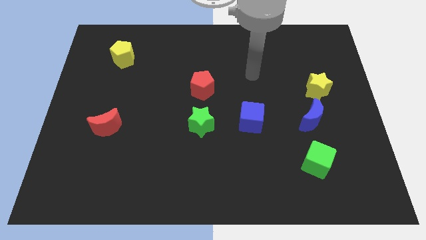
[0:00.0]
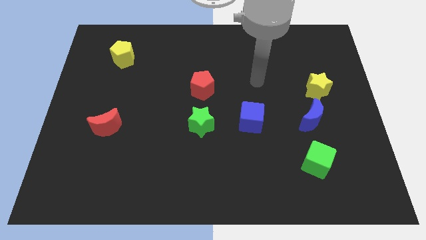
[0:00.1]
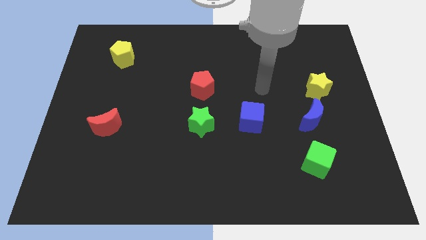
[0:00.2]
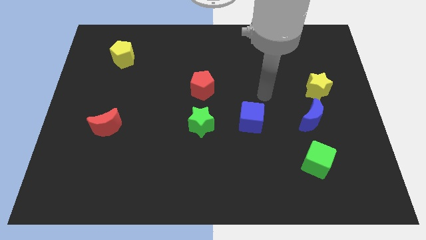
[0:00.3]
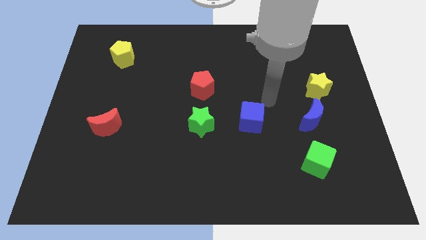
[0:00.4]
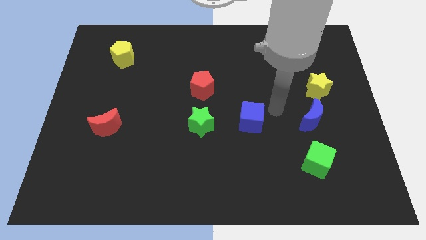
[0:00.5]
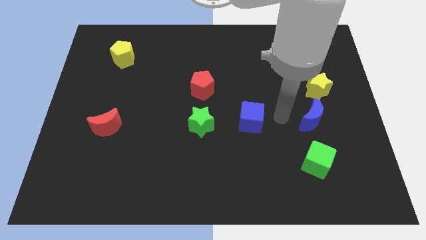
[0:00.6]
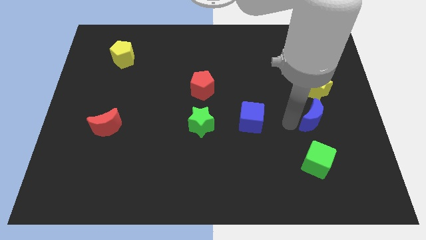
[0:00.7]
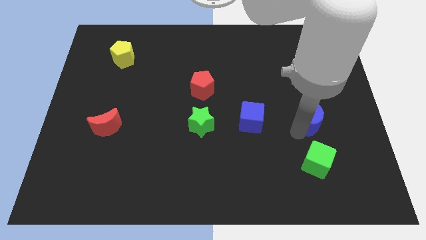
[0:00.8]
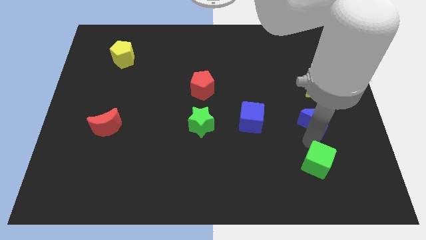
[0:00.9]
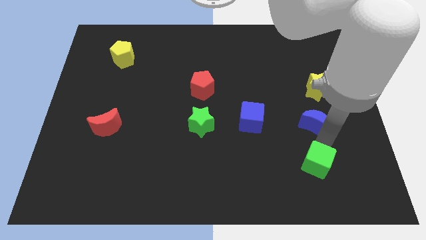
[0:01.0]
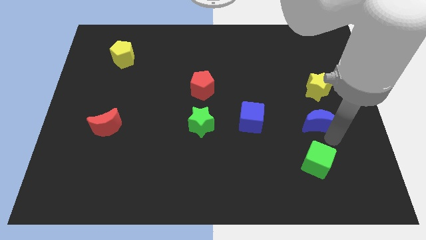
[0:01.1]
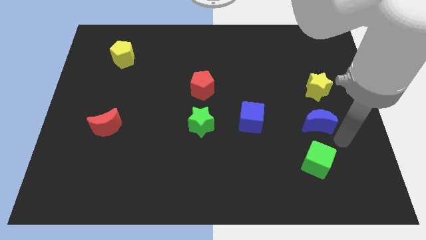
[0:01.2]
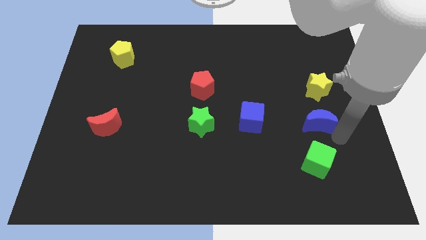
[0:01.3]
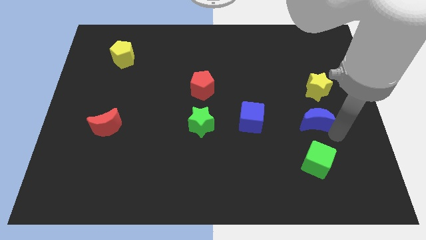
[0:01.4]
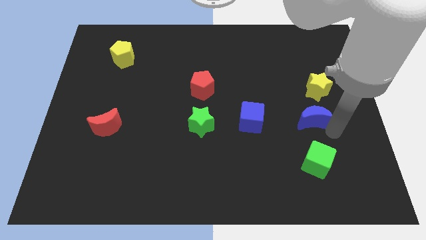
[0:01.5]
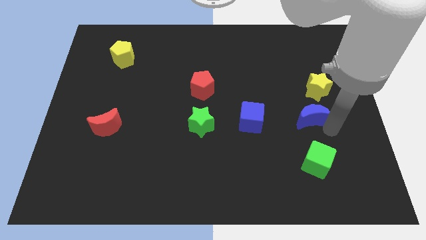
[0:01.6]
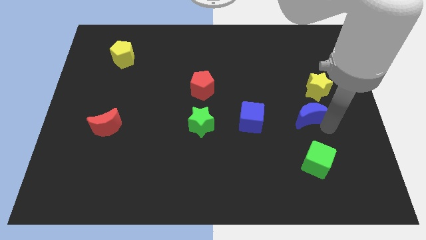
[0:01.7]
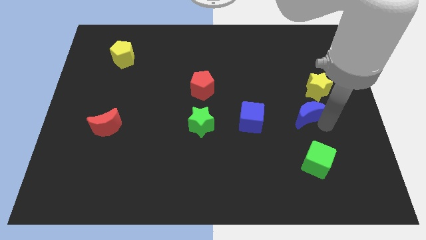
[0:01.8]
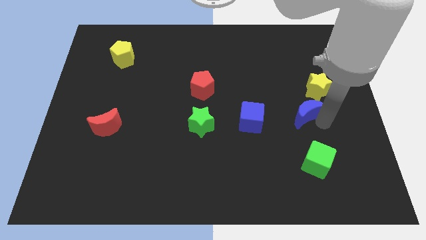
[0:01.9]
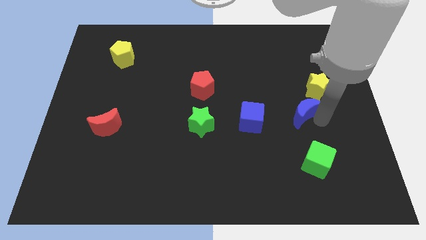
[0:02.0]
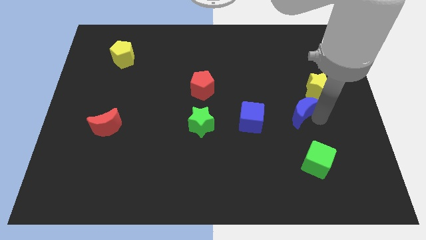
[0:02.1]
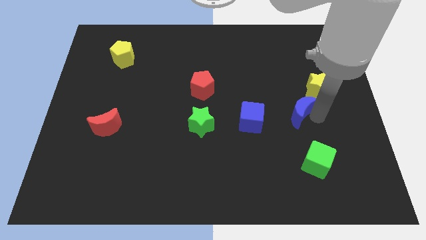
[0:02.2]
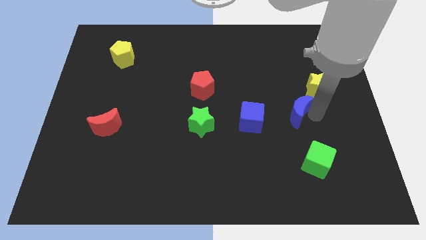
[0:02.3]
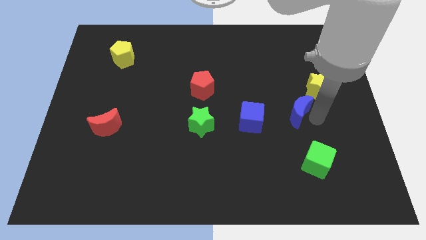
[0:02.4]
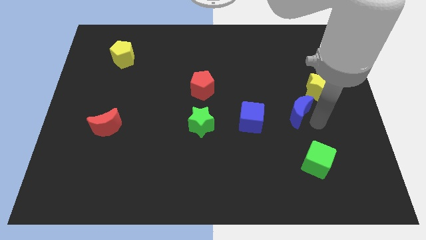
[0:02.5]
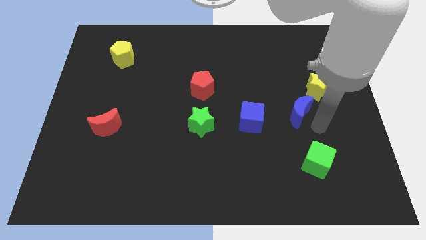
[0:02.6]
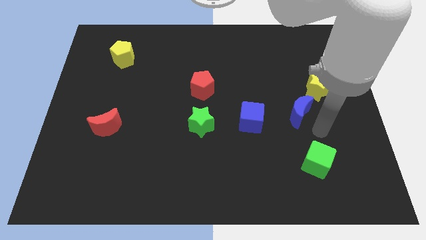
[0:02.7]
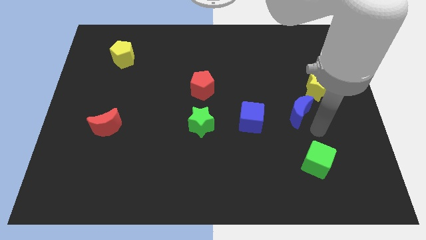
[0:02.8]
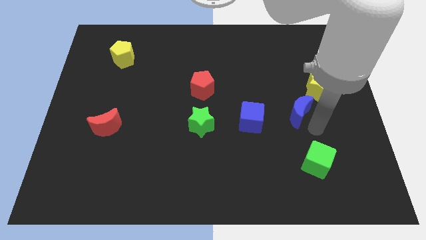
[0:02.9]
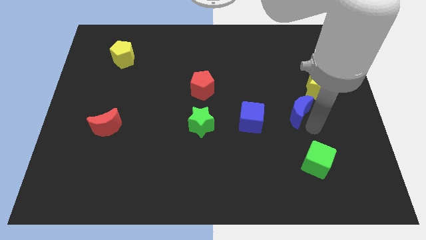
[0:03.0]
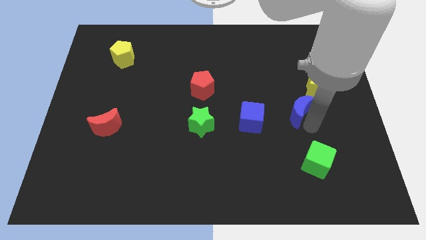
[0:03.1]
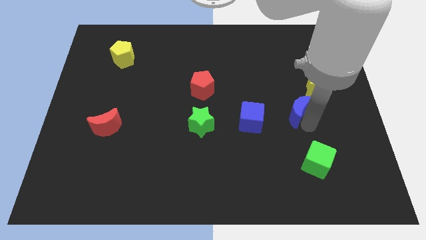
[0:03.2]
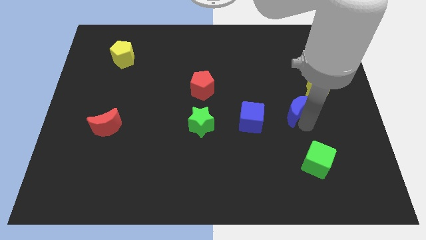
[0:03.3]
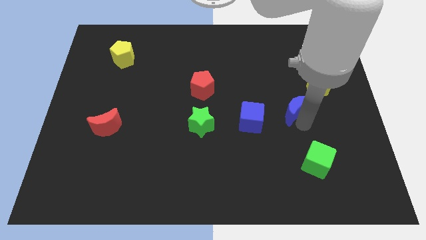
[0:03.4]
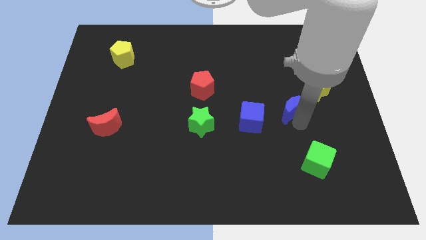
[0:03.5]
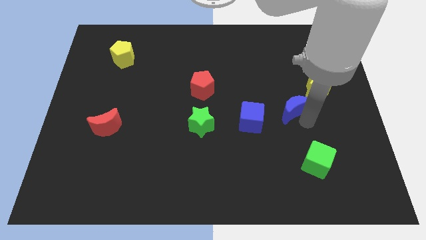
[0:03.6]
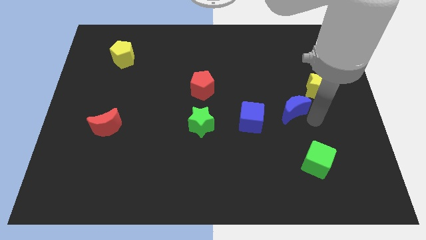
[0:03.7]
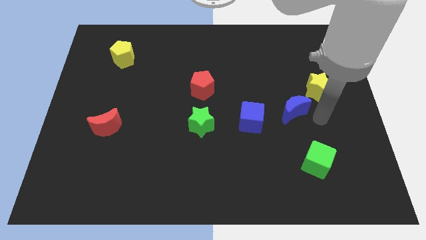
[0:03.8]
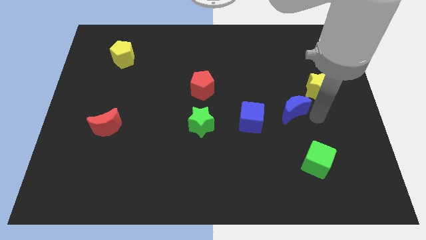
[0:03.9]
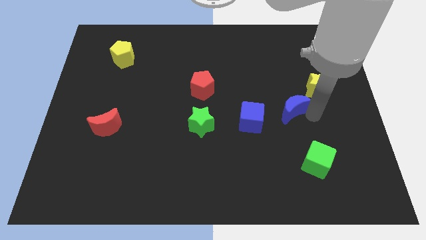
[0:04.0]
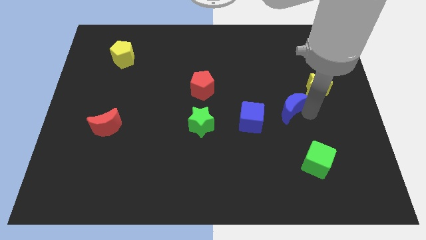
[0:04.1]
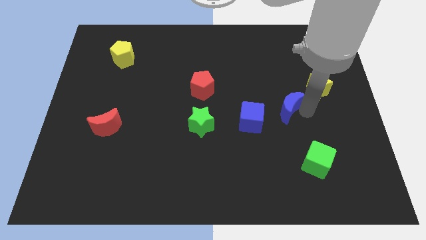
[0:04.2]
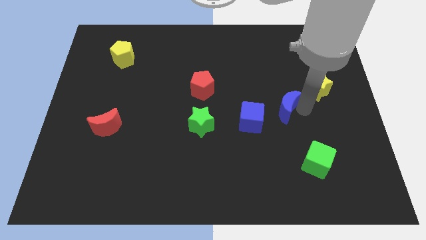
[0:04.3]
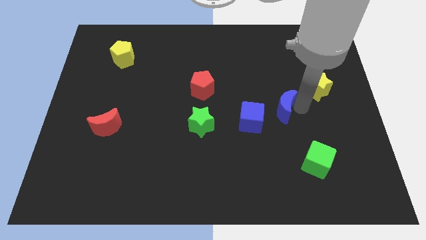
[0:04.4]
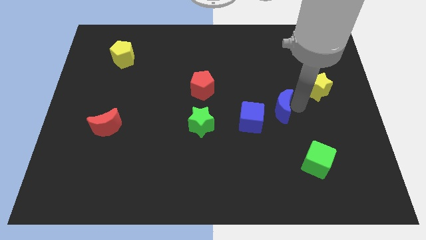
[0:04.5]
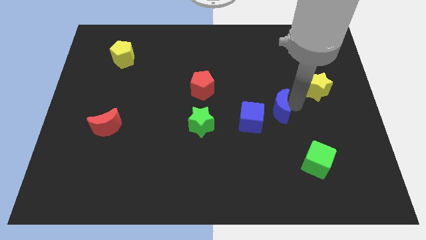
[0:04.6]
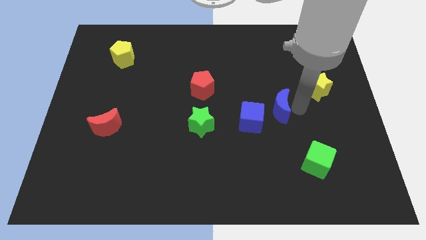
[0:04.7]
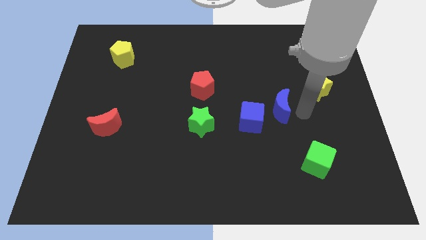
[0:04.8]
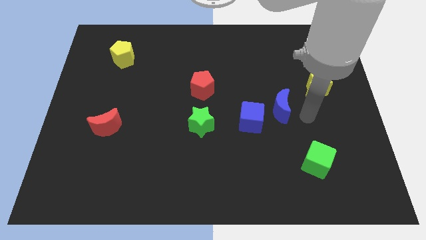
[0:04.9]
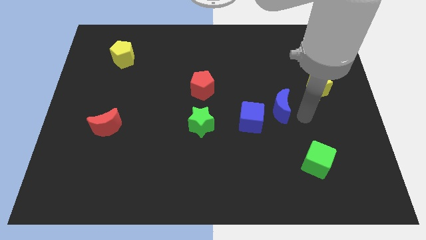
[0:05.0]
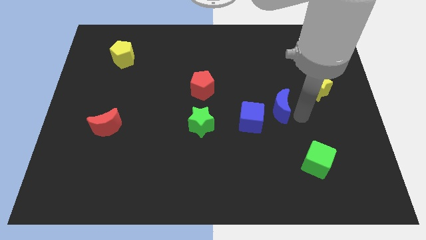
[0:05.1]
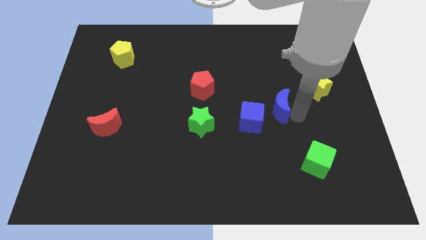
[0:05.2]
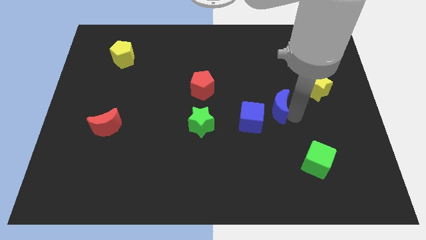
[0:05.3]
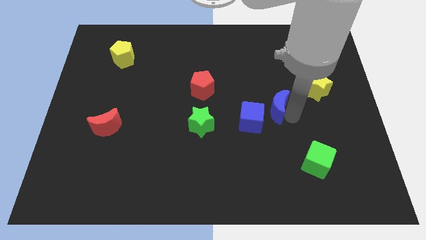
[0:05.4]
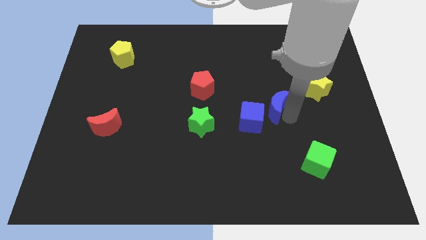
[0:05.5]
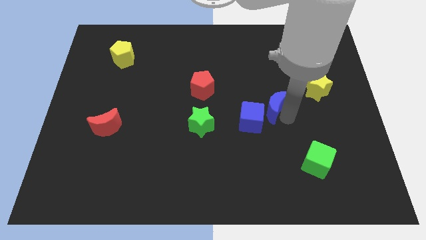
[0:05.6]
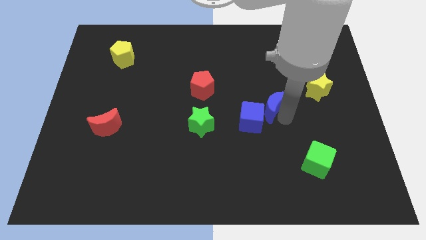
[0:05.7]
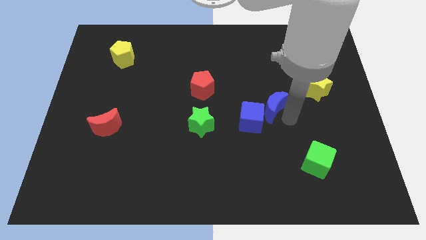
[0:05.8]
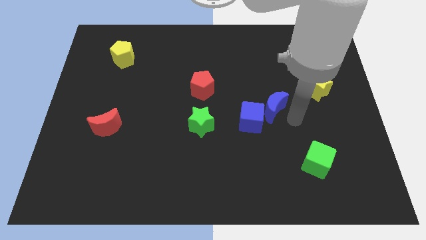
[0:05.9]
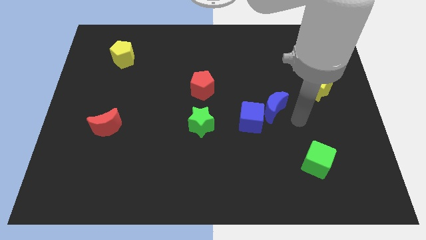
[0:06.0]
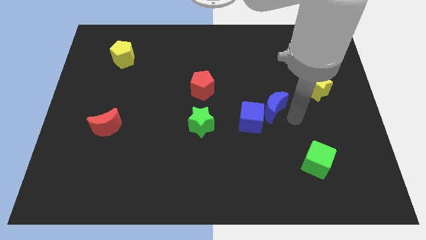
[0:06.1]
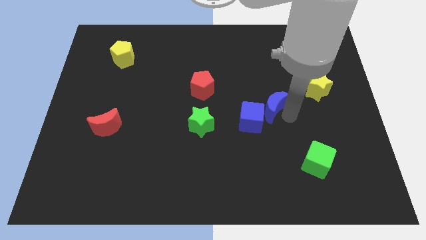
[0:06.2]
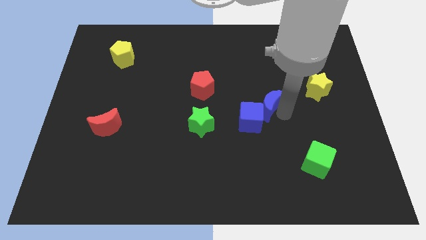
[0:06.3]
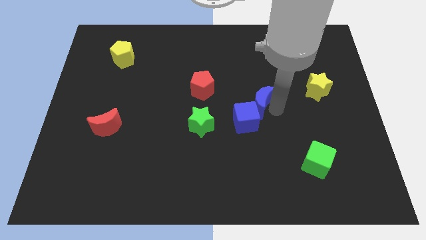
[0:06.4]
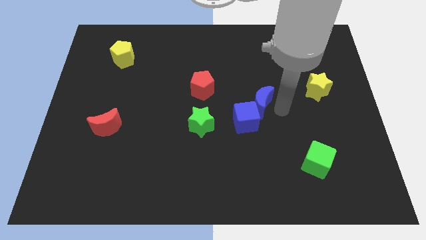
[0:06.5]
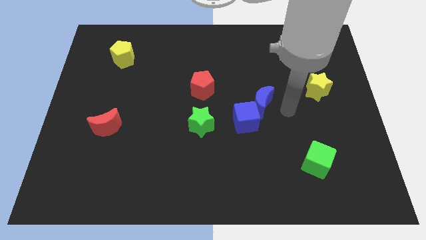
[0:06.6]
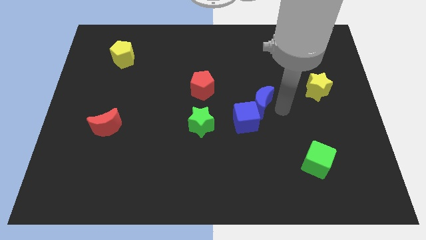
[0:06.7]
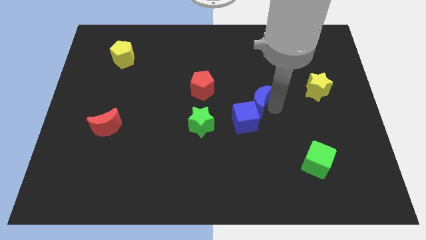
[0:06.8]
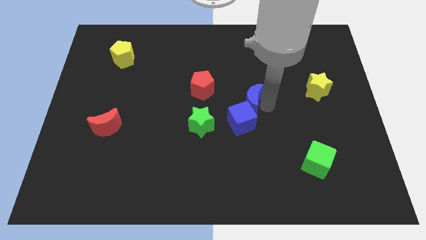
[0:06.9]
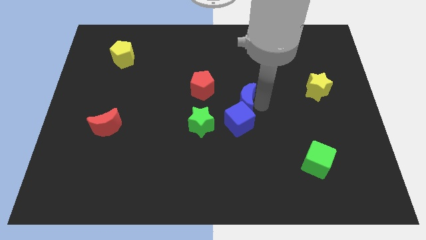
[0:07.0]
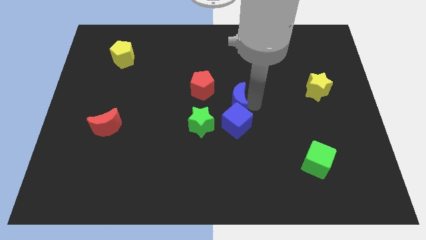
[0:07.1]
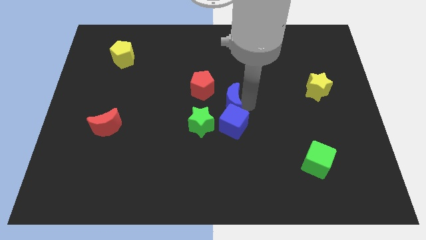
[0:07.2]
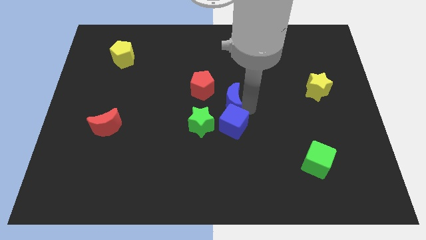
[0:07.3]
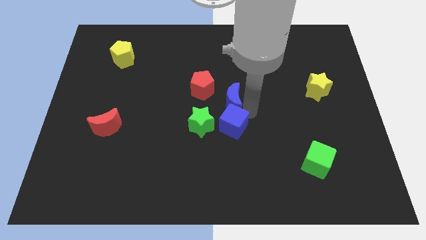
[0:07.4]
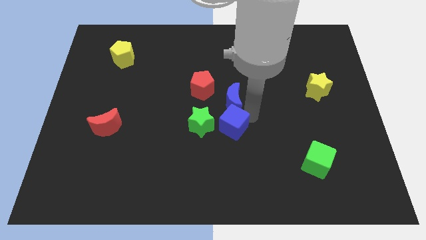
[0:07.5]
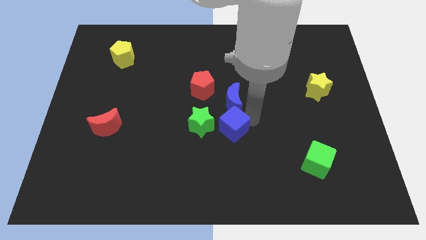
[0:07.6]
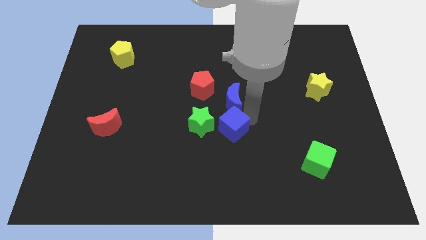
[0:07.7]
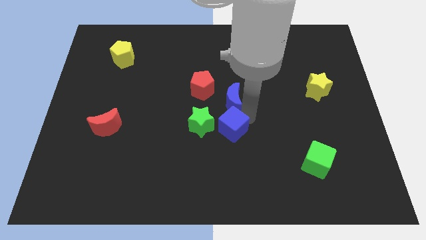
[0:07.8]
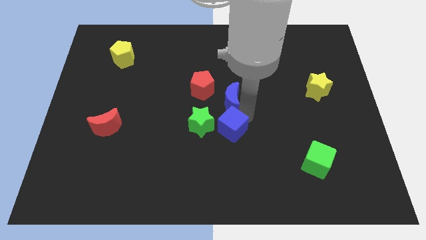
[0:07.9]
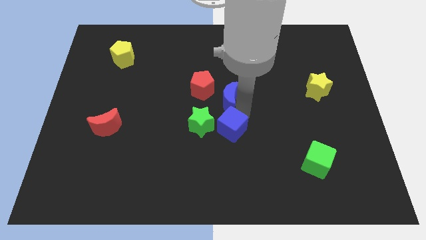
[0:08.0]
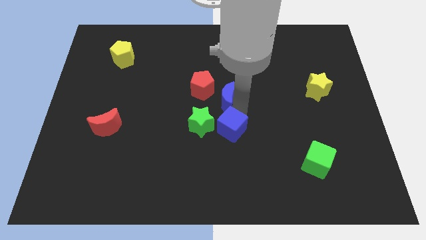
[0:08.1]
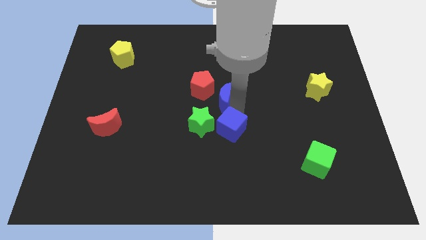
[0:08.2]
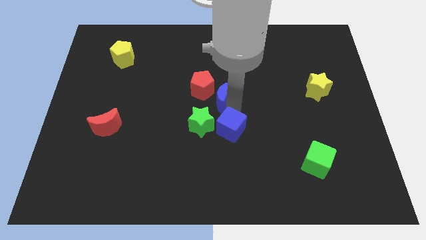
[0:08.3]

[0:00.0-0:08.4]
push the blue moon next to the red pentagon
